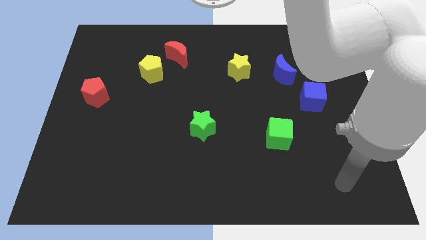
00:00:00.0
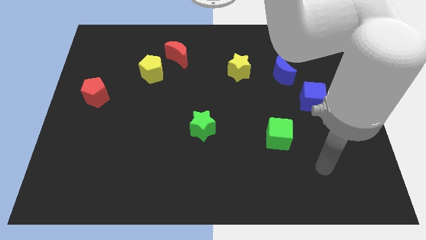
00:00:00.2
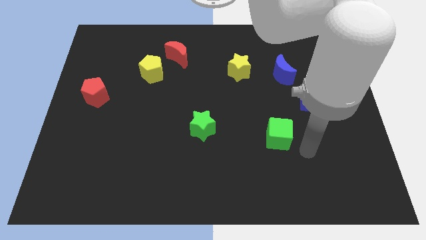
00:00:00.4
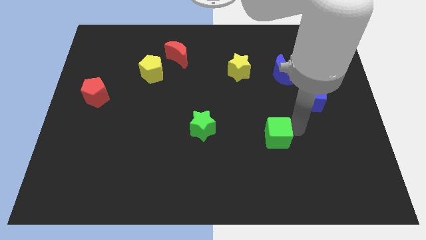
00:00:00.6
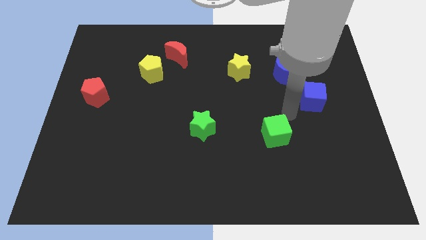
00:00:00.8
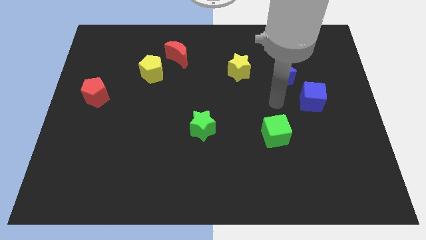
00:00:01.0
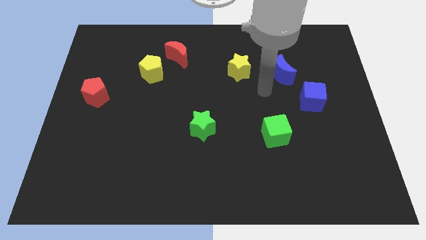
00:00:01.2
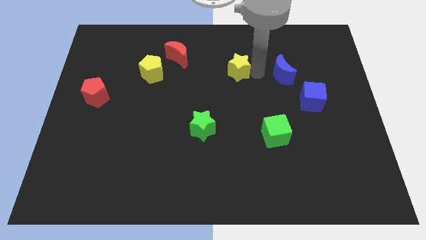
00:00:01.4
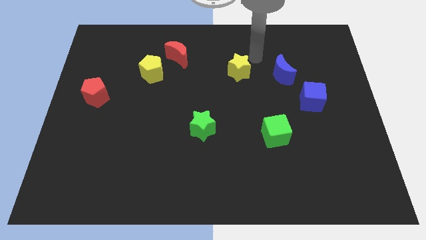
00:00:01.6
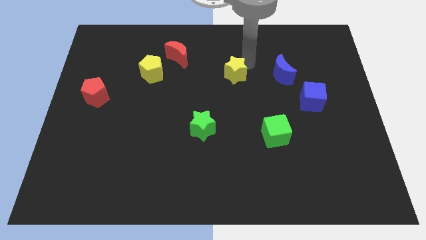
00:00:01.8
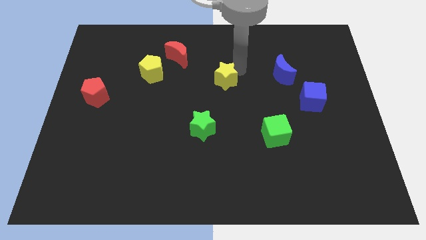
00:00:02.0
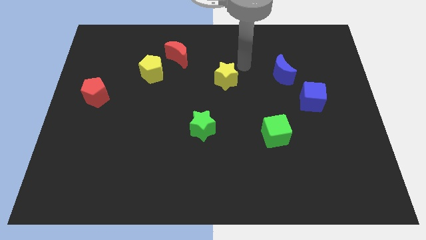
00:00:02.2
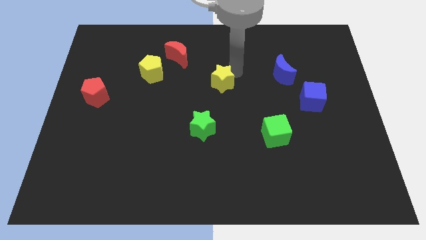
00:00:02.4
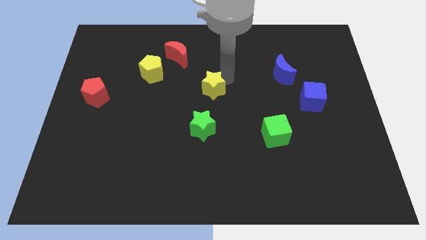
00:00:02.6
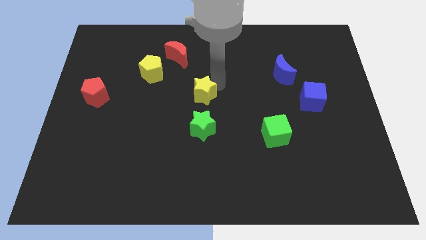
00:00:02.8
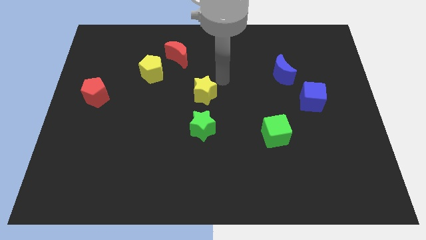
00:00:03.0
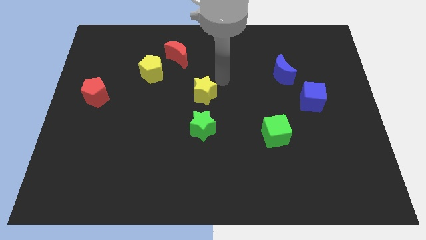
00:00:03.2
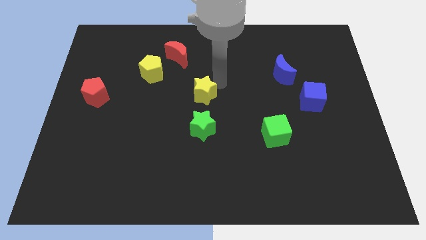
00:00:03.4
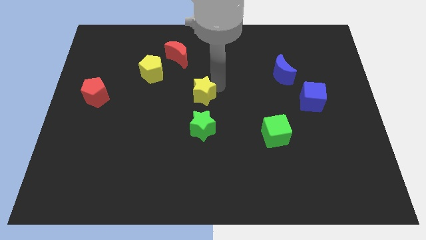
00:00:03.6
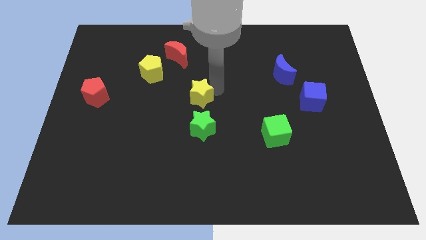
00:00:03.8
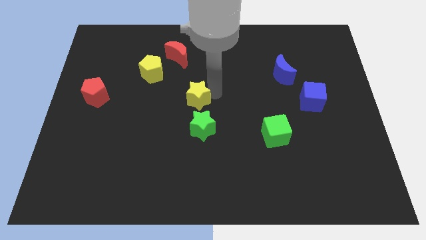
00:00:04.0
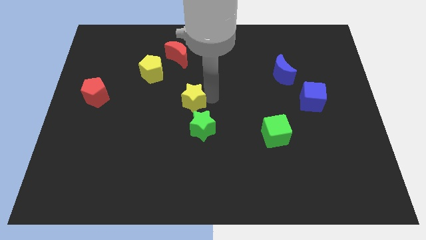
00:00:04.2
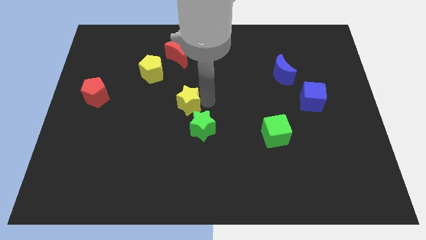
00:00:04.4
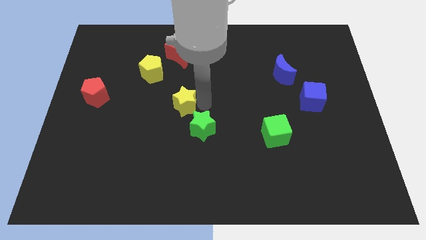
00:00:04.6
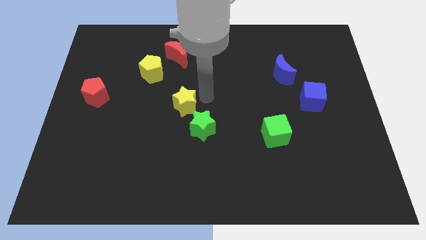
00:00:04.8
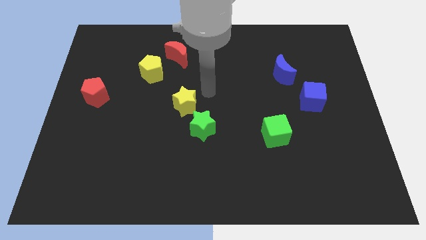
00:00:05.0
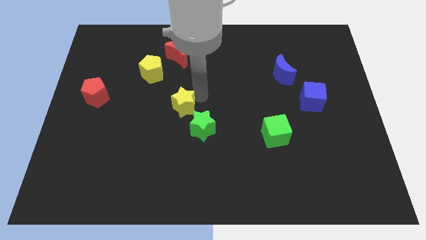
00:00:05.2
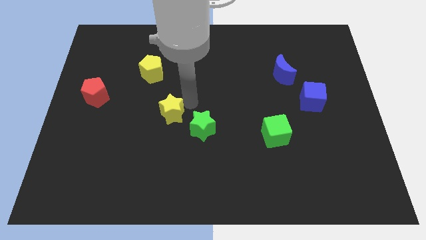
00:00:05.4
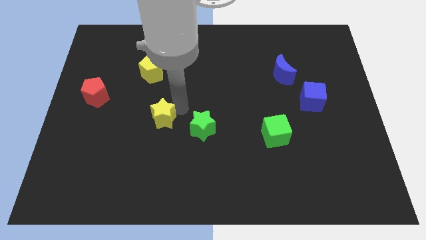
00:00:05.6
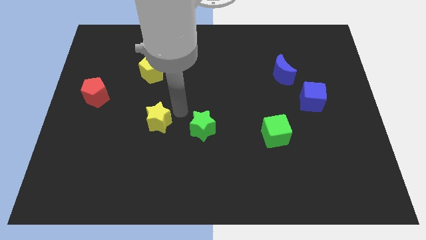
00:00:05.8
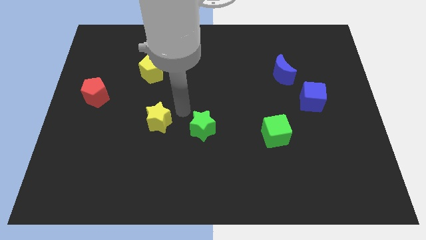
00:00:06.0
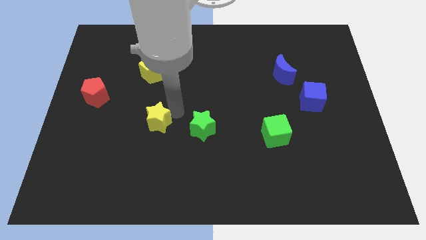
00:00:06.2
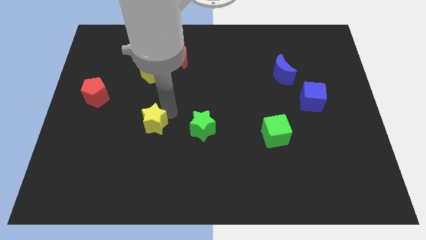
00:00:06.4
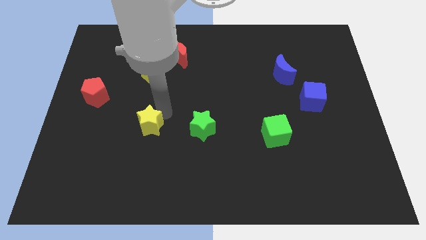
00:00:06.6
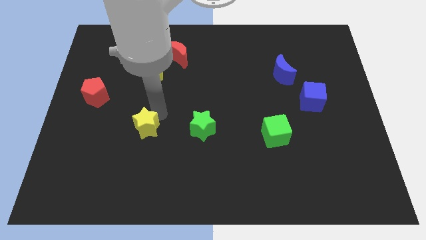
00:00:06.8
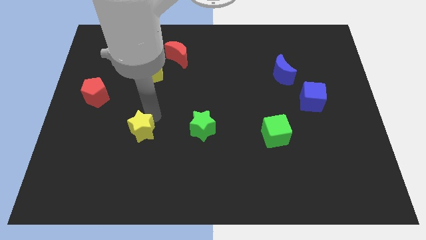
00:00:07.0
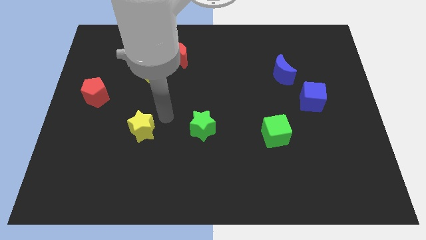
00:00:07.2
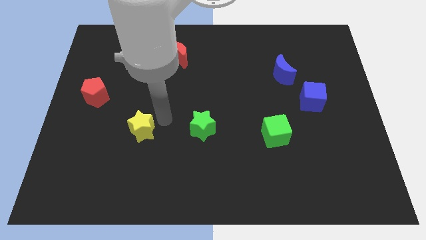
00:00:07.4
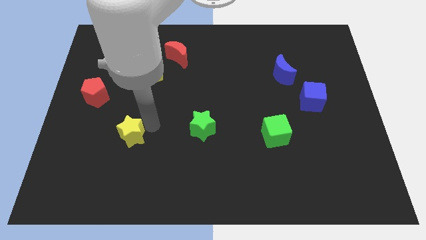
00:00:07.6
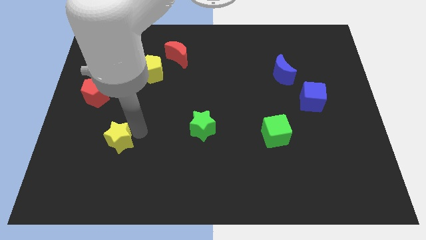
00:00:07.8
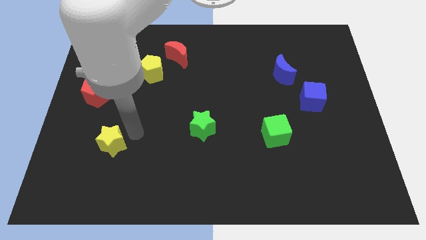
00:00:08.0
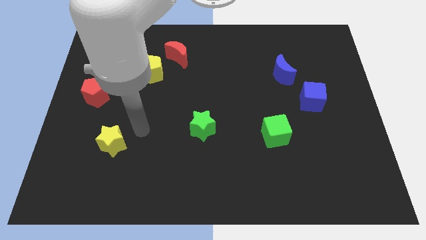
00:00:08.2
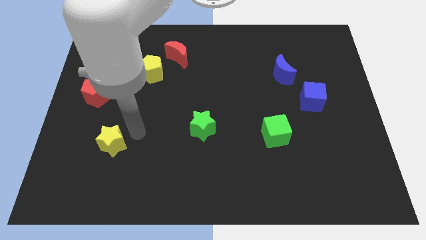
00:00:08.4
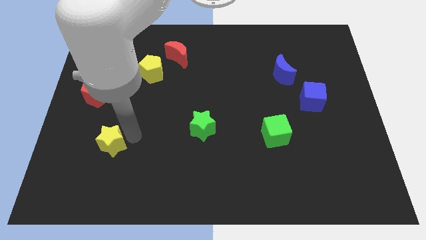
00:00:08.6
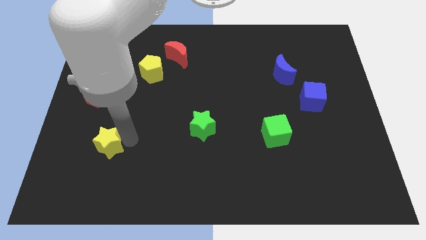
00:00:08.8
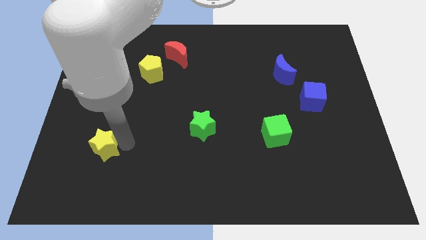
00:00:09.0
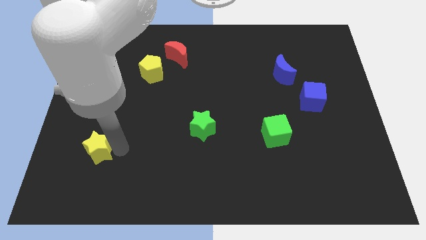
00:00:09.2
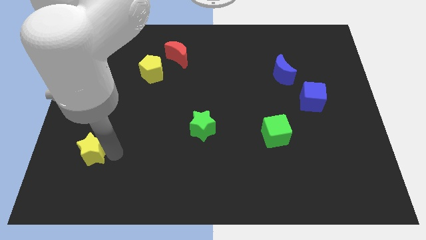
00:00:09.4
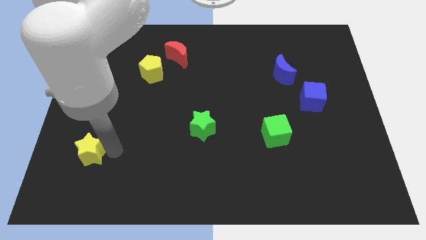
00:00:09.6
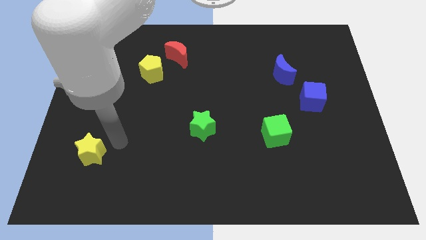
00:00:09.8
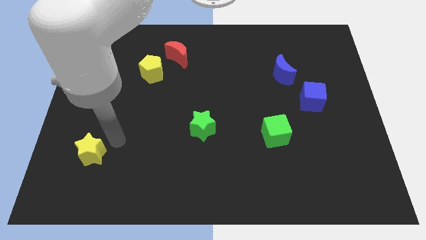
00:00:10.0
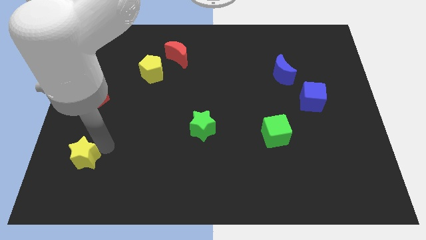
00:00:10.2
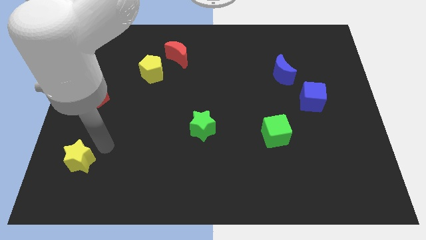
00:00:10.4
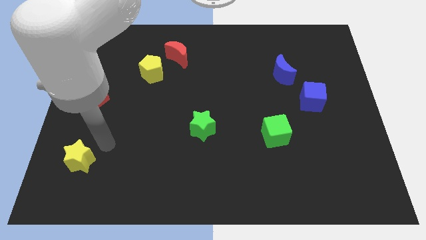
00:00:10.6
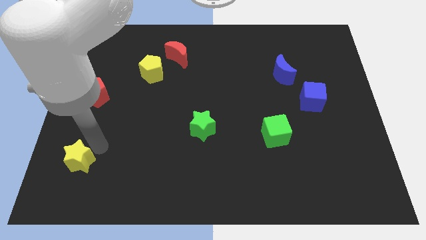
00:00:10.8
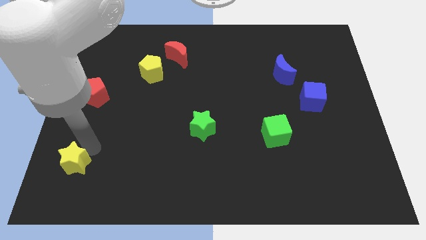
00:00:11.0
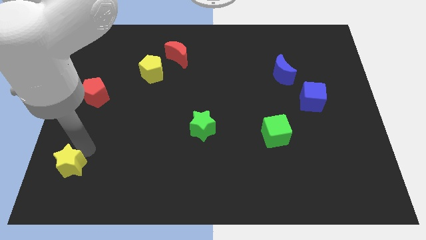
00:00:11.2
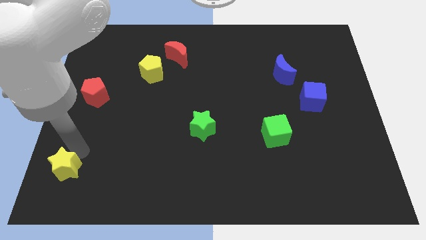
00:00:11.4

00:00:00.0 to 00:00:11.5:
move the yellow star to the lower left corner

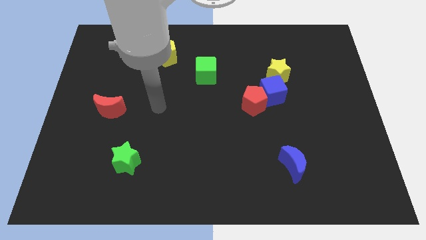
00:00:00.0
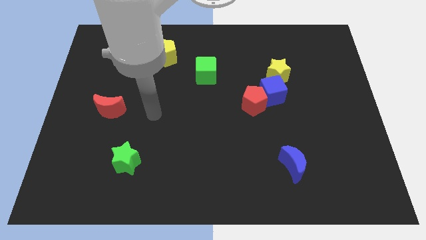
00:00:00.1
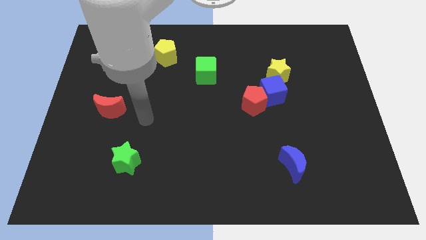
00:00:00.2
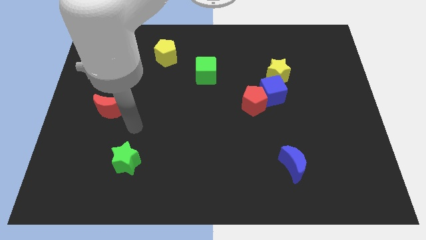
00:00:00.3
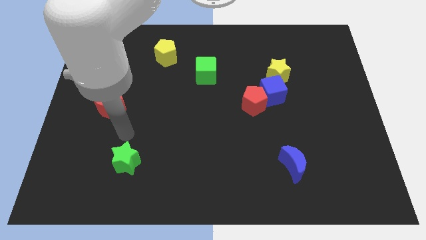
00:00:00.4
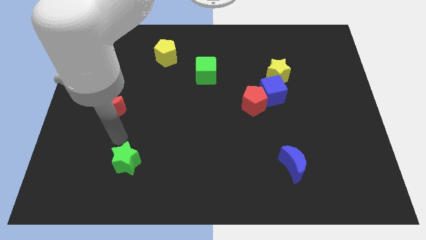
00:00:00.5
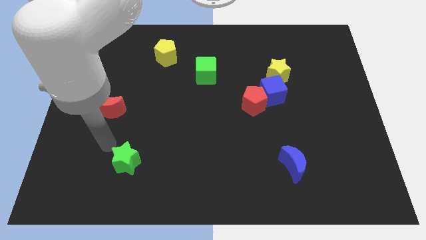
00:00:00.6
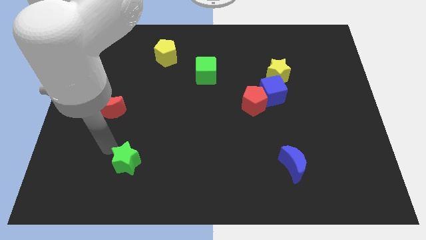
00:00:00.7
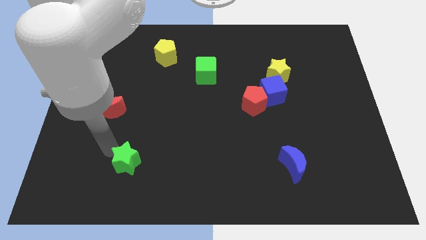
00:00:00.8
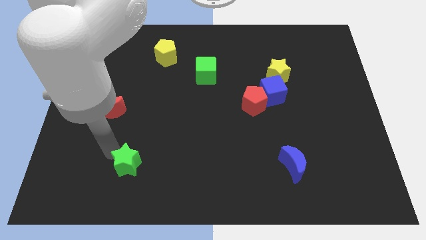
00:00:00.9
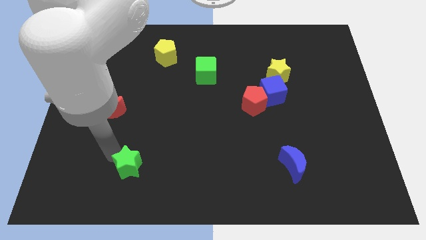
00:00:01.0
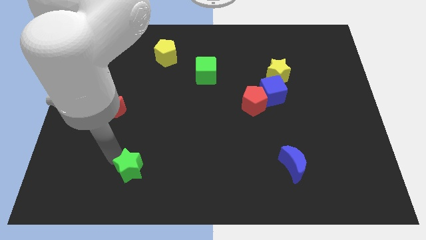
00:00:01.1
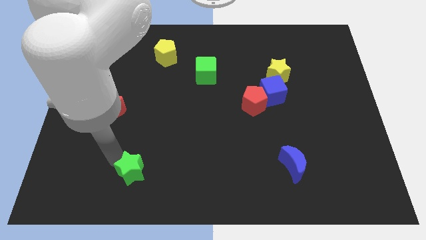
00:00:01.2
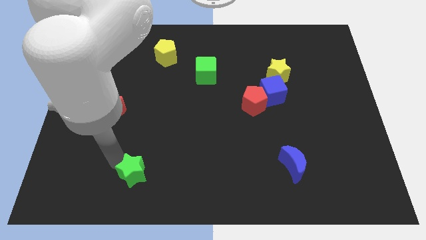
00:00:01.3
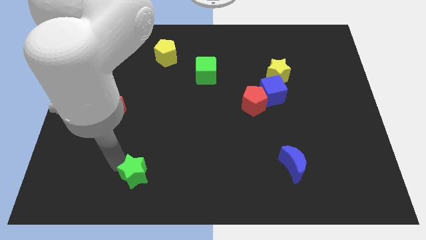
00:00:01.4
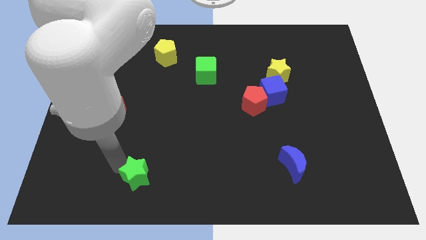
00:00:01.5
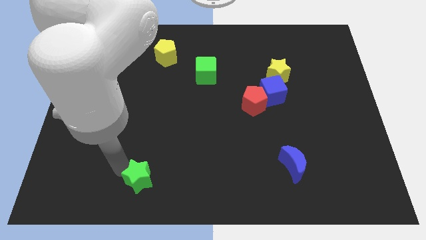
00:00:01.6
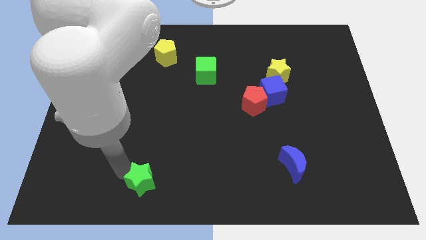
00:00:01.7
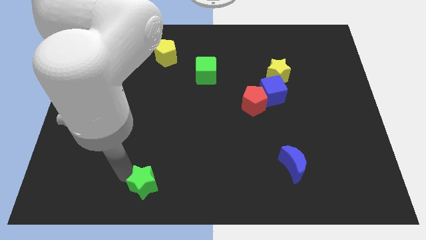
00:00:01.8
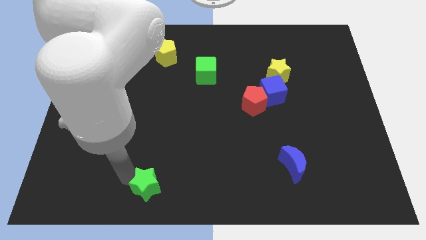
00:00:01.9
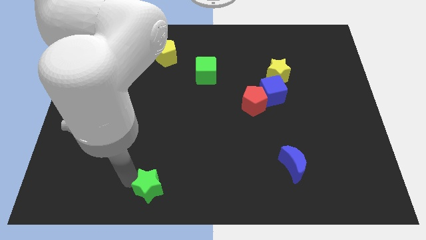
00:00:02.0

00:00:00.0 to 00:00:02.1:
slide the green star to the bottom side
